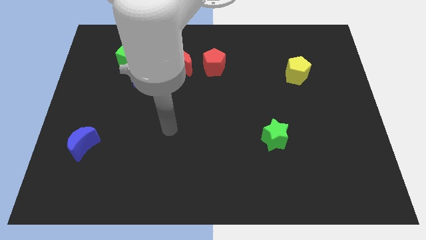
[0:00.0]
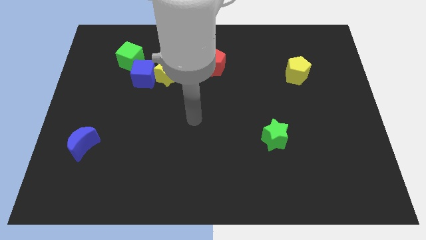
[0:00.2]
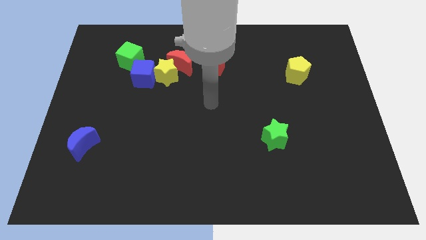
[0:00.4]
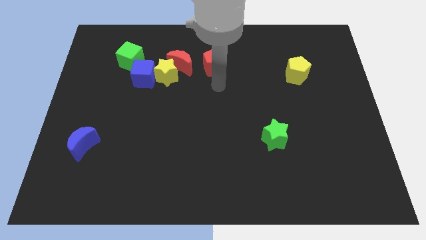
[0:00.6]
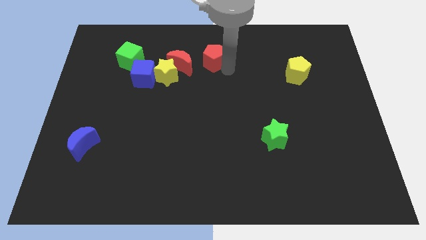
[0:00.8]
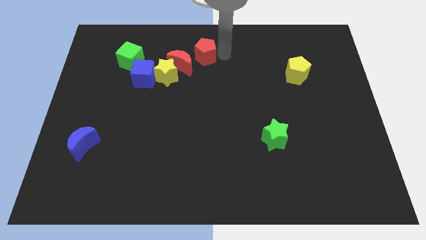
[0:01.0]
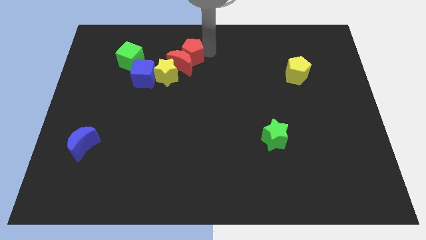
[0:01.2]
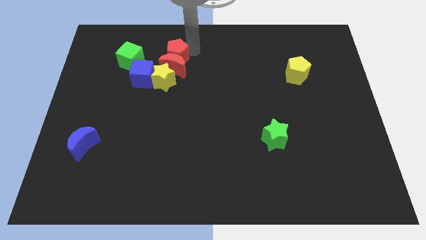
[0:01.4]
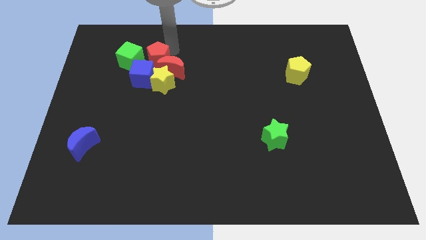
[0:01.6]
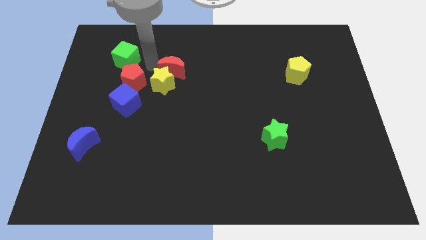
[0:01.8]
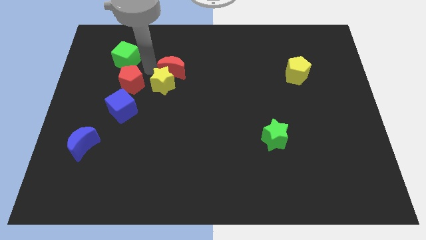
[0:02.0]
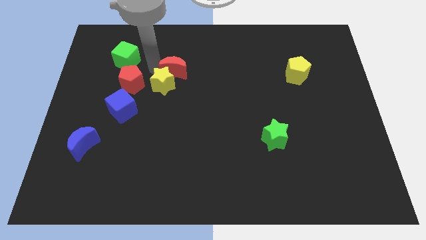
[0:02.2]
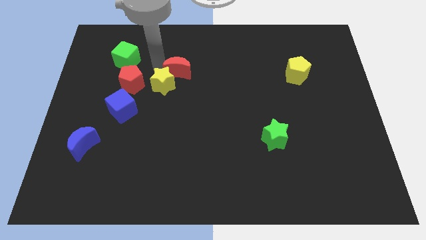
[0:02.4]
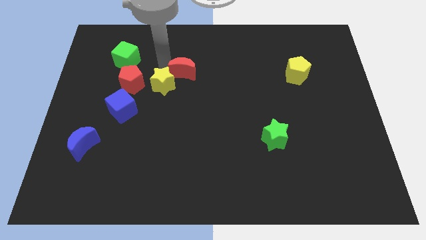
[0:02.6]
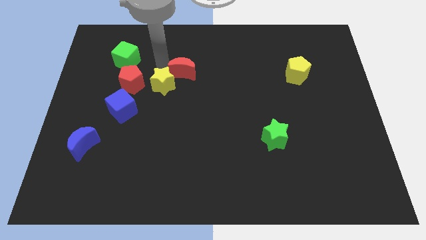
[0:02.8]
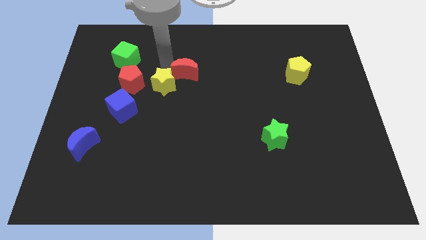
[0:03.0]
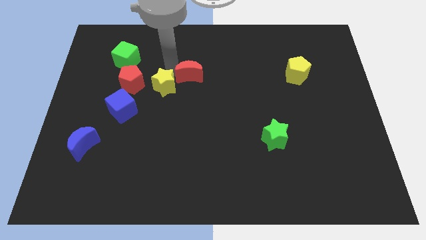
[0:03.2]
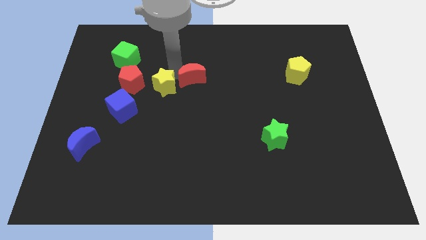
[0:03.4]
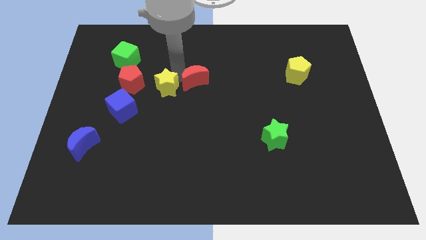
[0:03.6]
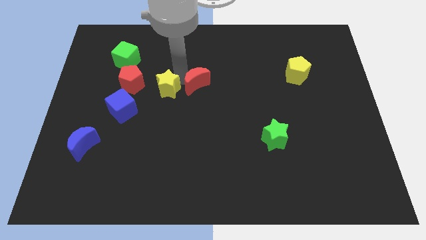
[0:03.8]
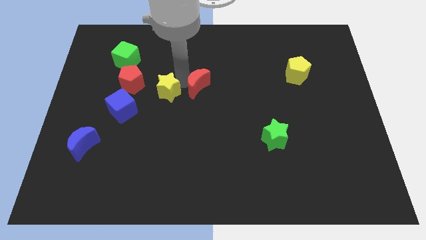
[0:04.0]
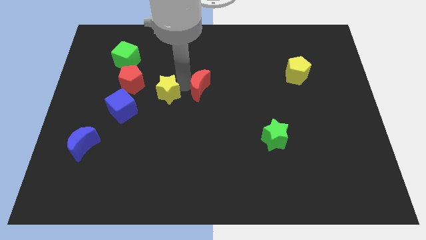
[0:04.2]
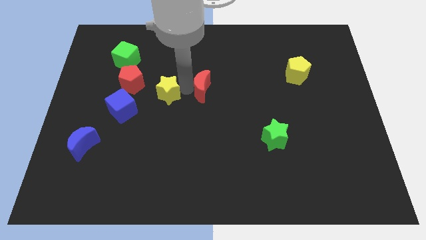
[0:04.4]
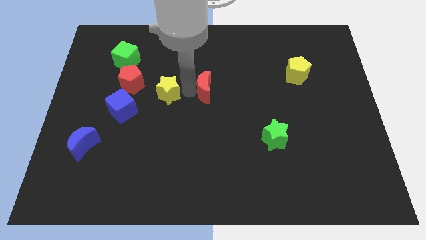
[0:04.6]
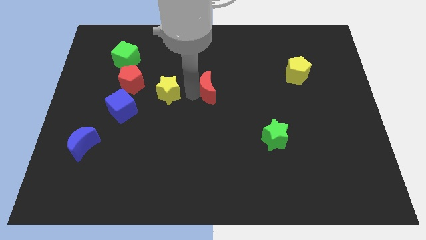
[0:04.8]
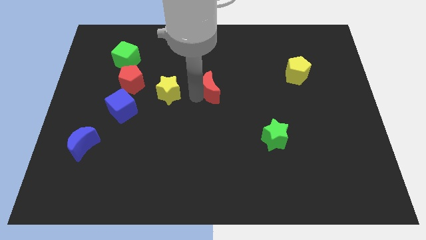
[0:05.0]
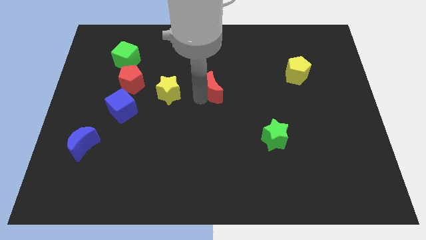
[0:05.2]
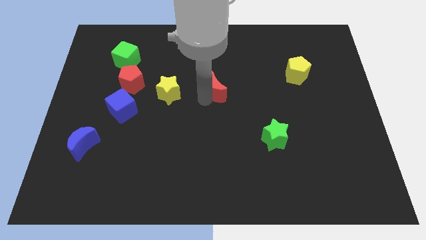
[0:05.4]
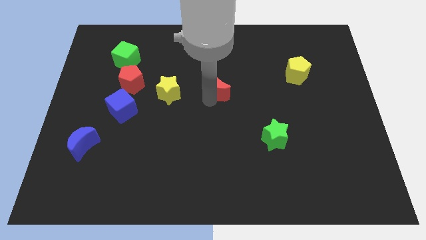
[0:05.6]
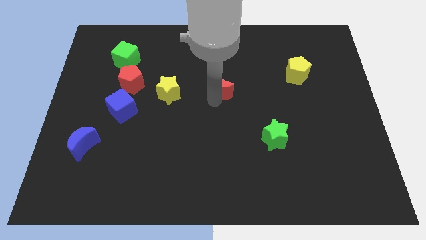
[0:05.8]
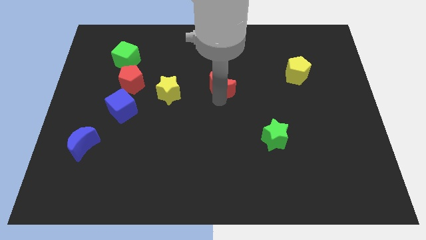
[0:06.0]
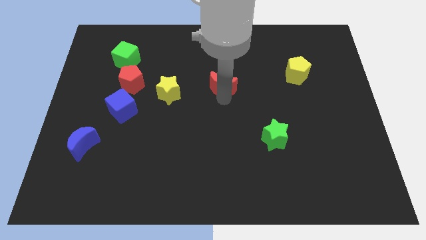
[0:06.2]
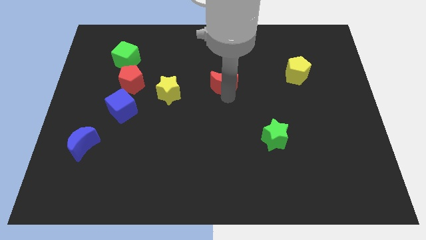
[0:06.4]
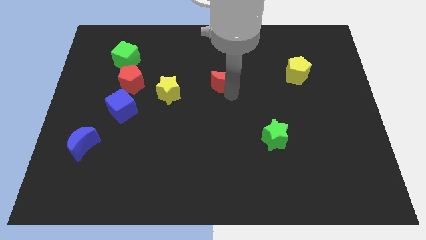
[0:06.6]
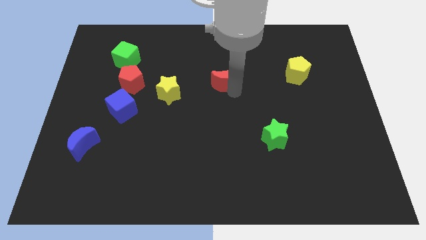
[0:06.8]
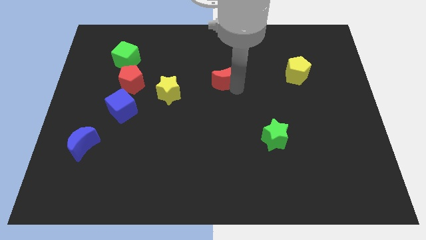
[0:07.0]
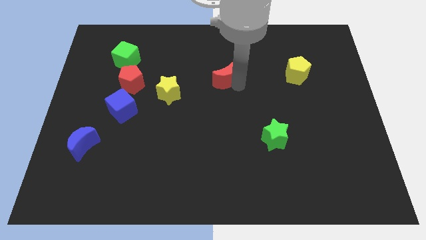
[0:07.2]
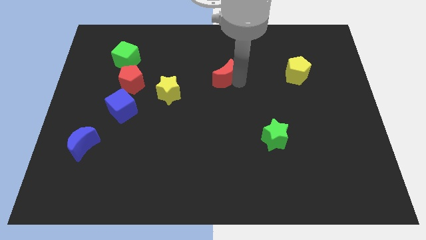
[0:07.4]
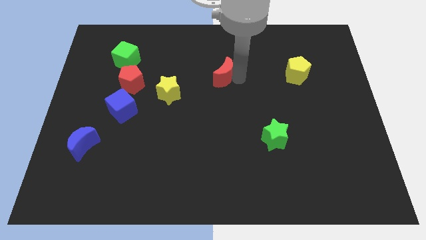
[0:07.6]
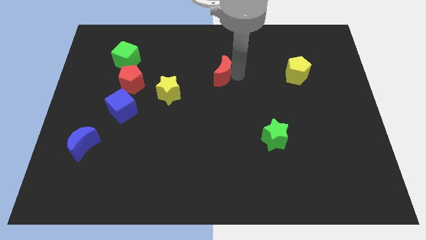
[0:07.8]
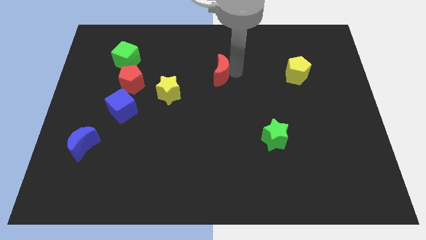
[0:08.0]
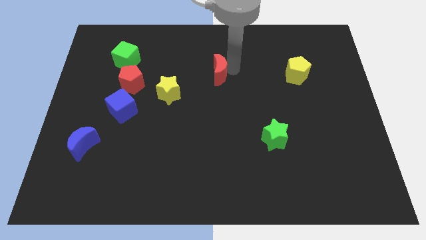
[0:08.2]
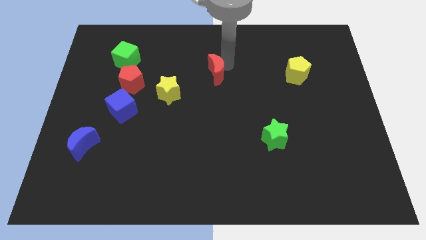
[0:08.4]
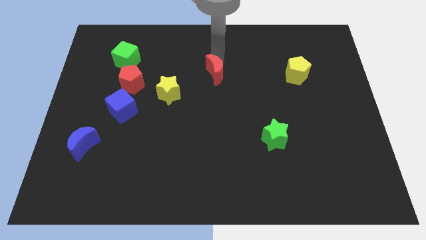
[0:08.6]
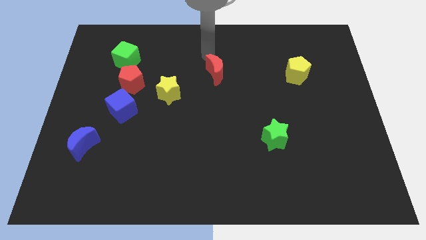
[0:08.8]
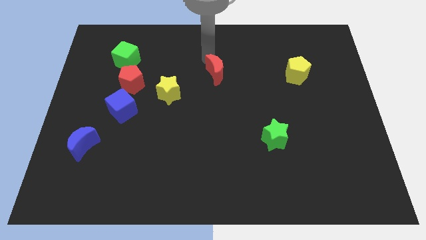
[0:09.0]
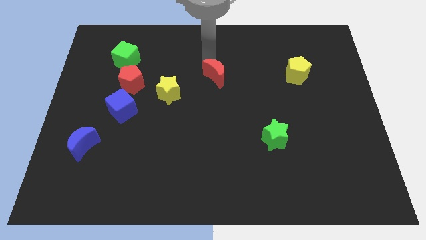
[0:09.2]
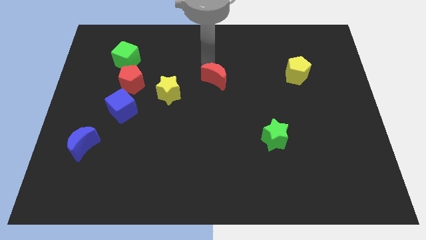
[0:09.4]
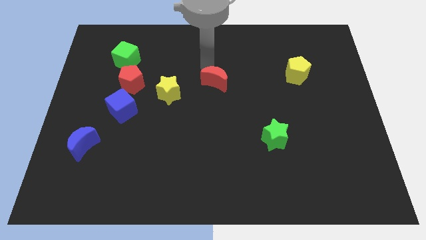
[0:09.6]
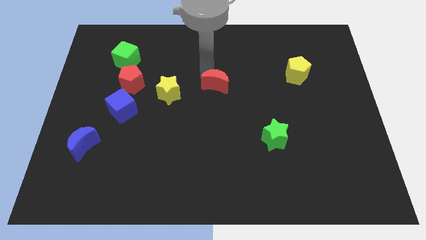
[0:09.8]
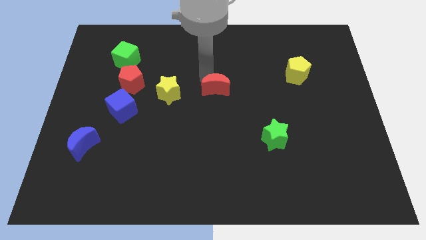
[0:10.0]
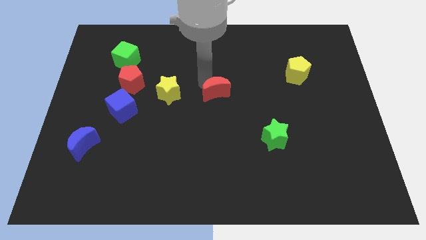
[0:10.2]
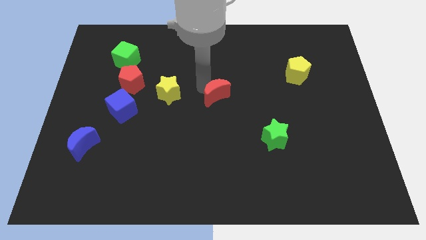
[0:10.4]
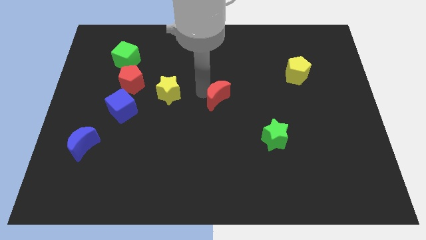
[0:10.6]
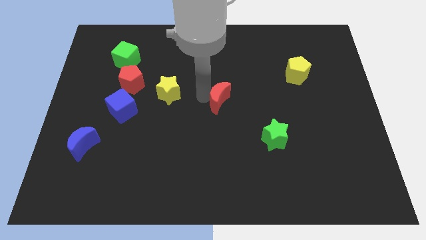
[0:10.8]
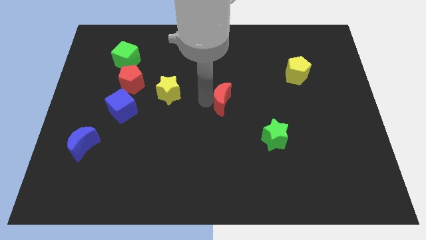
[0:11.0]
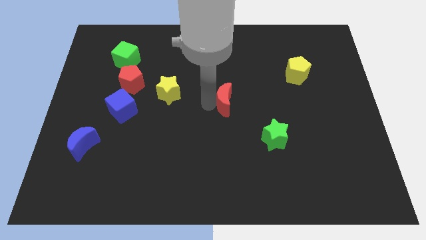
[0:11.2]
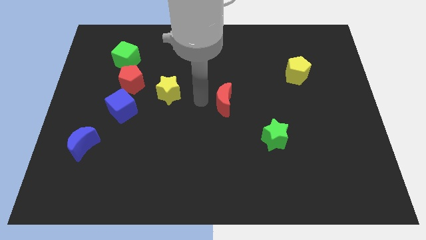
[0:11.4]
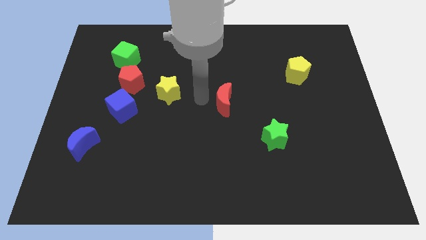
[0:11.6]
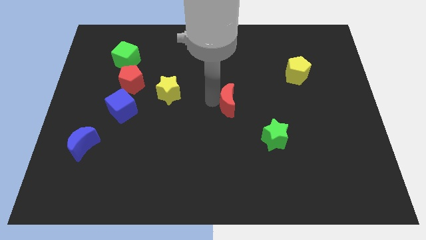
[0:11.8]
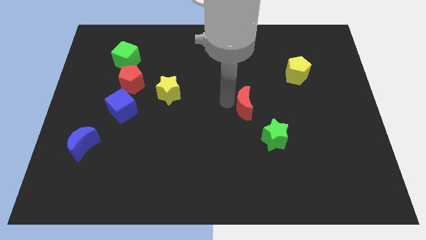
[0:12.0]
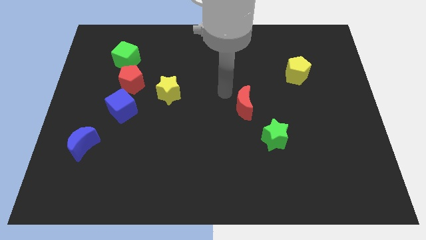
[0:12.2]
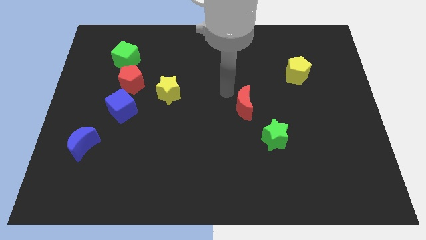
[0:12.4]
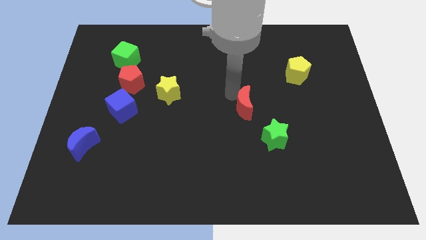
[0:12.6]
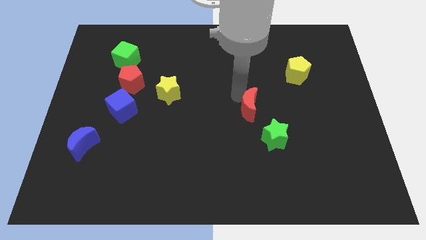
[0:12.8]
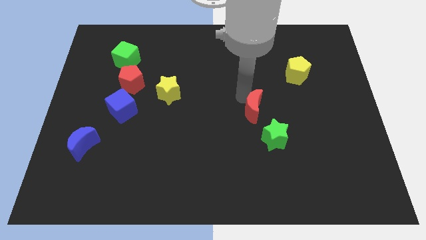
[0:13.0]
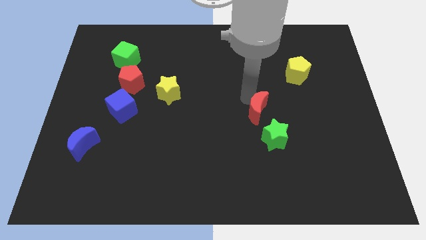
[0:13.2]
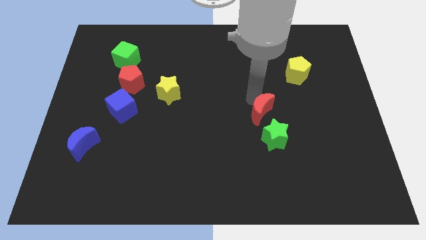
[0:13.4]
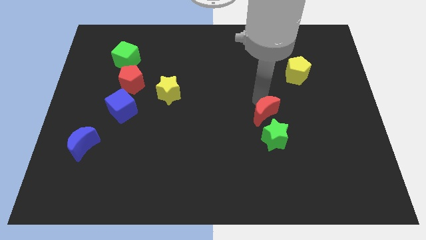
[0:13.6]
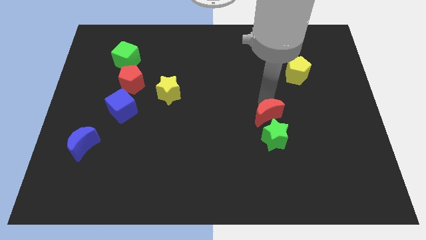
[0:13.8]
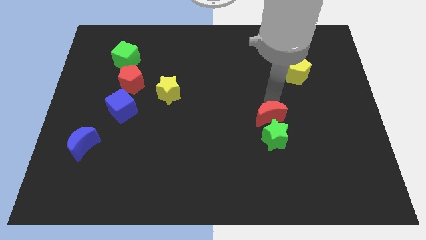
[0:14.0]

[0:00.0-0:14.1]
put the red moon to the green star

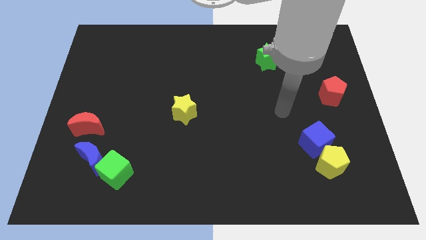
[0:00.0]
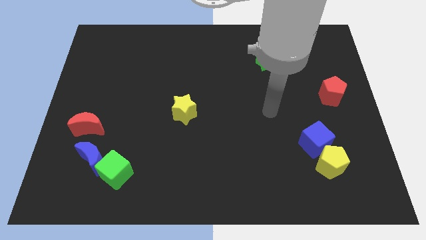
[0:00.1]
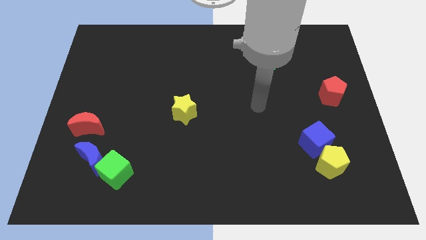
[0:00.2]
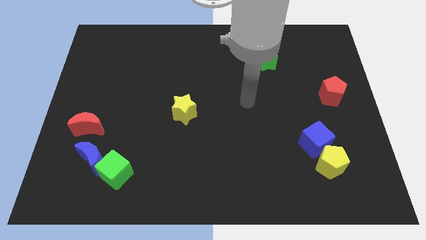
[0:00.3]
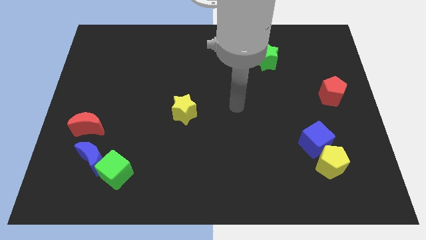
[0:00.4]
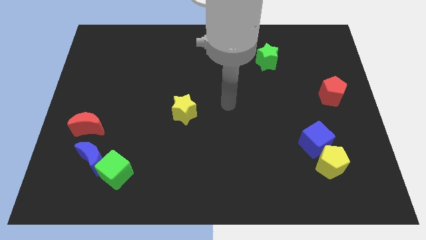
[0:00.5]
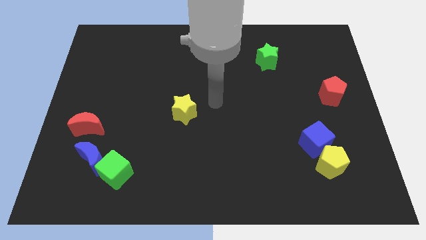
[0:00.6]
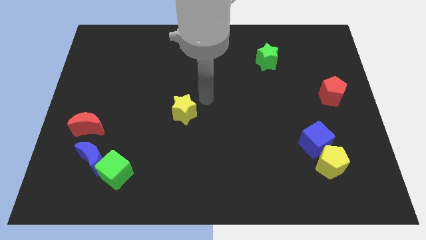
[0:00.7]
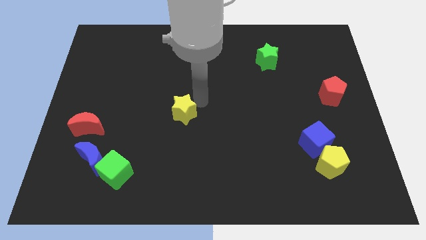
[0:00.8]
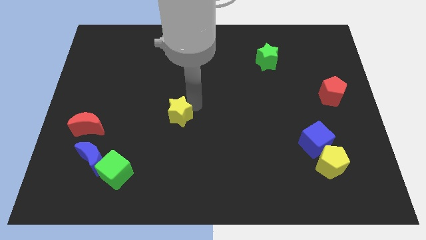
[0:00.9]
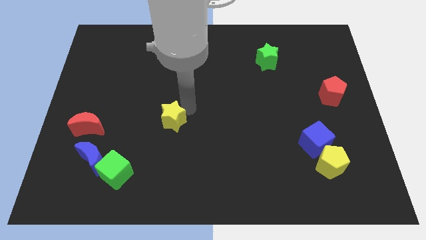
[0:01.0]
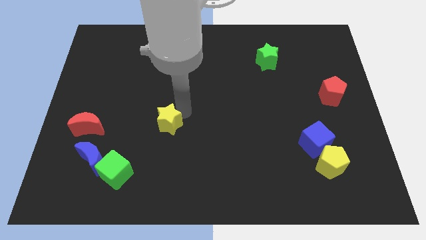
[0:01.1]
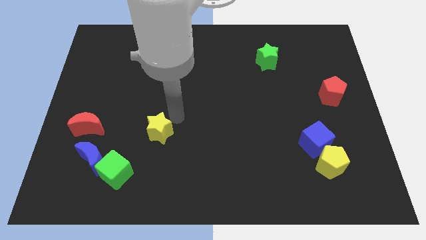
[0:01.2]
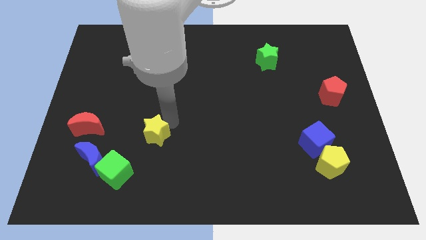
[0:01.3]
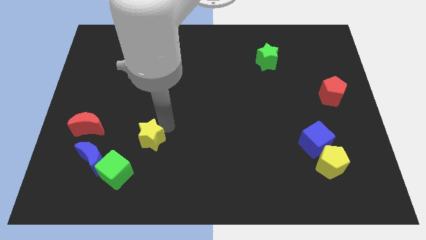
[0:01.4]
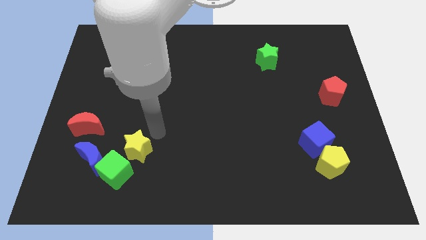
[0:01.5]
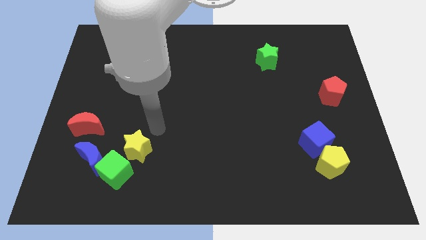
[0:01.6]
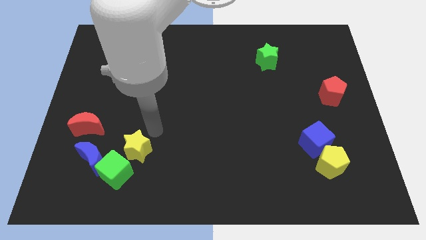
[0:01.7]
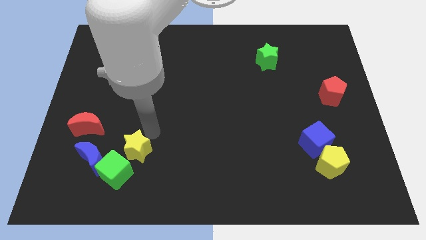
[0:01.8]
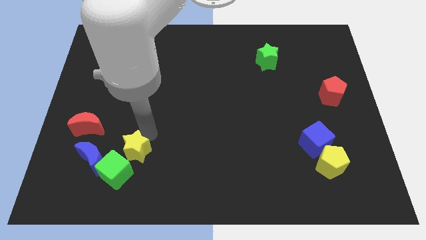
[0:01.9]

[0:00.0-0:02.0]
move the yellow star close to the green cube
